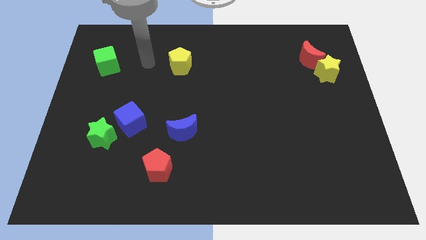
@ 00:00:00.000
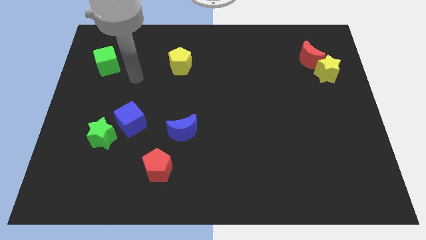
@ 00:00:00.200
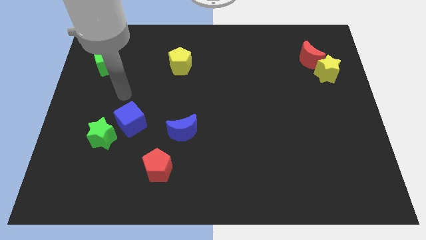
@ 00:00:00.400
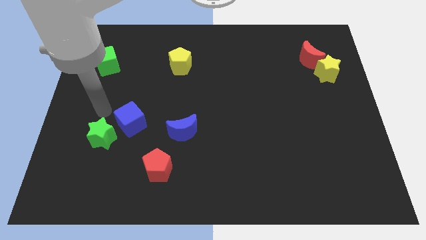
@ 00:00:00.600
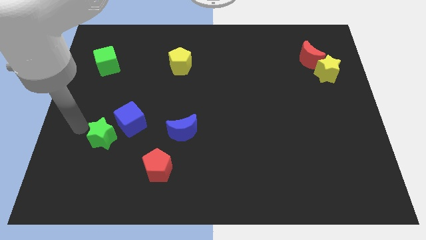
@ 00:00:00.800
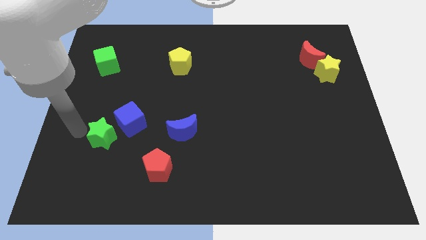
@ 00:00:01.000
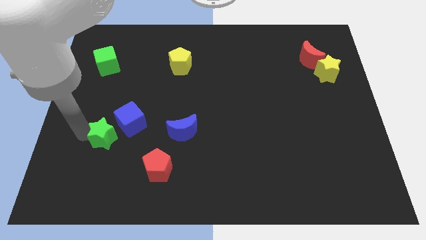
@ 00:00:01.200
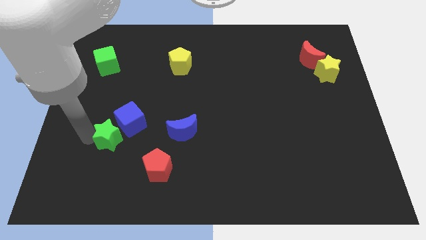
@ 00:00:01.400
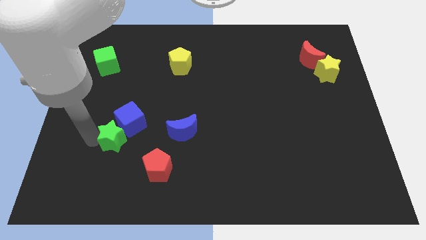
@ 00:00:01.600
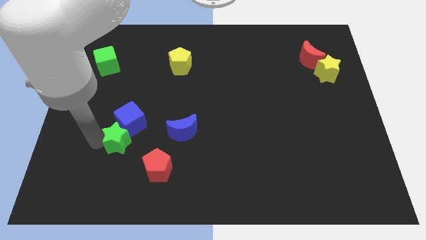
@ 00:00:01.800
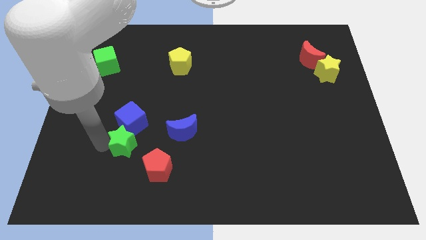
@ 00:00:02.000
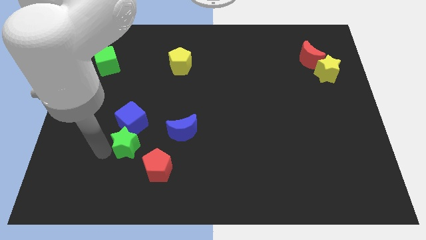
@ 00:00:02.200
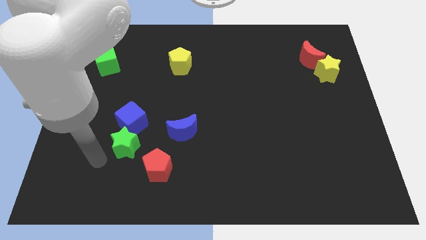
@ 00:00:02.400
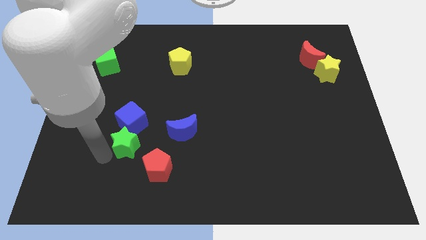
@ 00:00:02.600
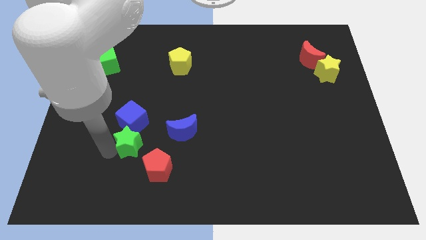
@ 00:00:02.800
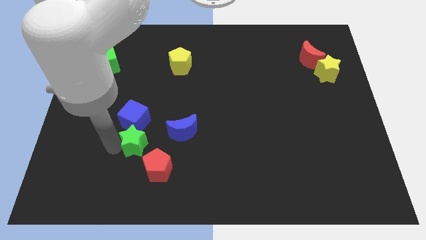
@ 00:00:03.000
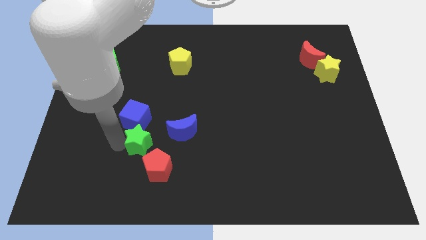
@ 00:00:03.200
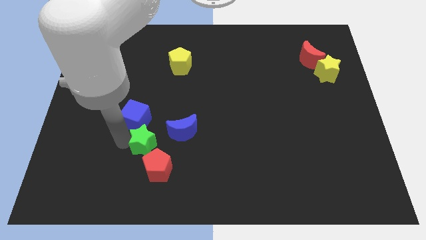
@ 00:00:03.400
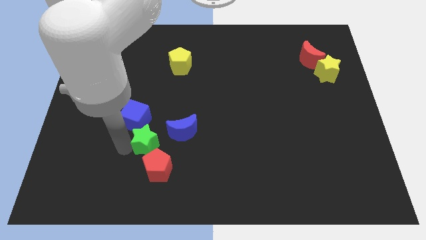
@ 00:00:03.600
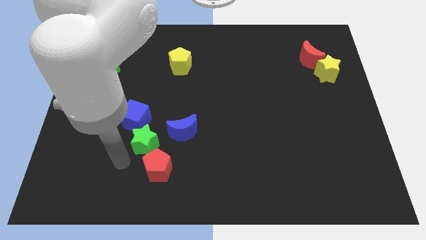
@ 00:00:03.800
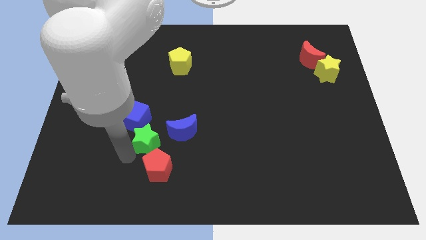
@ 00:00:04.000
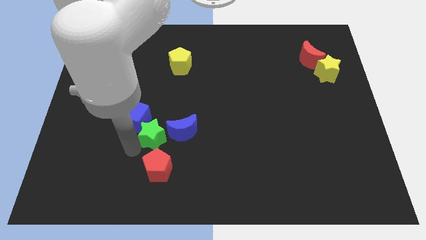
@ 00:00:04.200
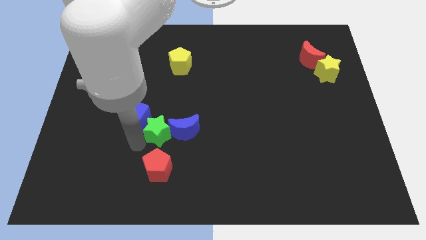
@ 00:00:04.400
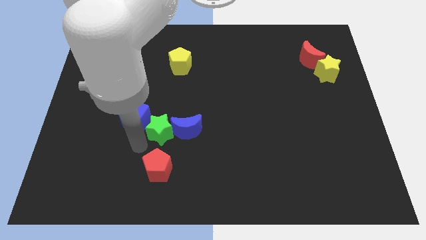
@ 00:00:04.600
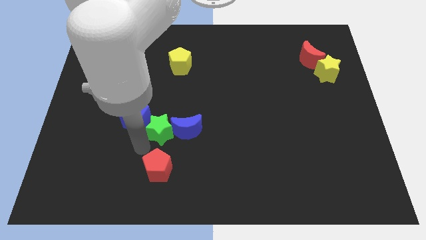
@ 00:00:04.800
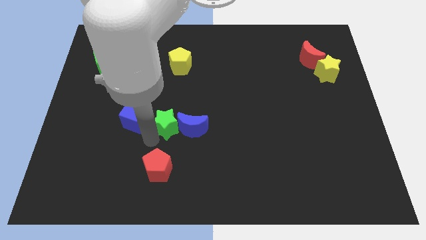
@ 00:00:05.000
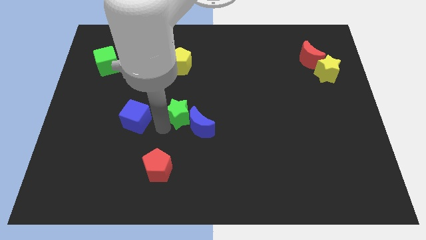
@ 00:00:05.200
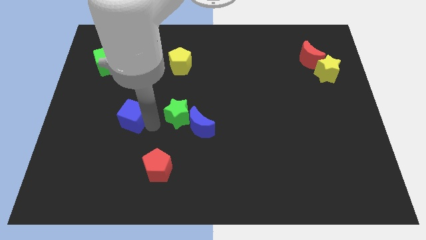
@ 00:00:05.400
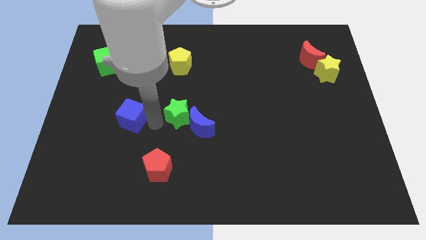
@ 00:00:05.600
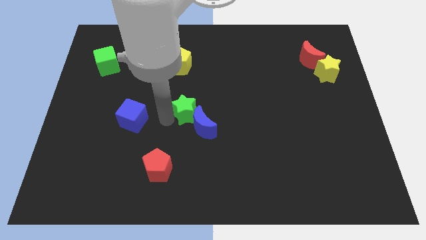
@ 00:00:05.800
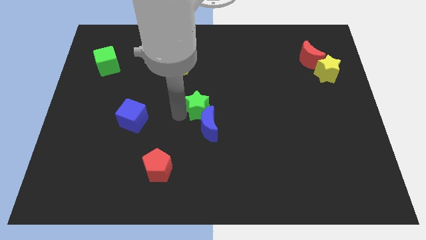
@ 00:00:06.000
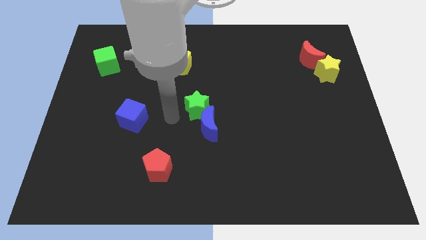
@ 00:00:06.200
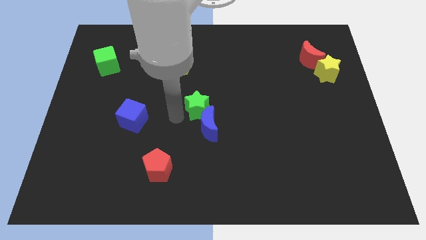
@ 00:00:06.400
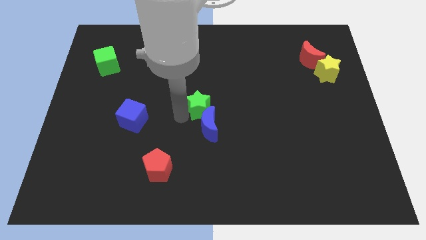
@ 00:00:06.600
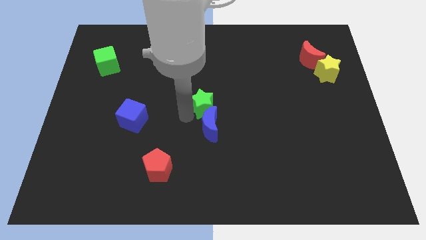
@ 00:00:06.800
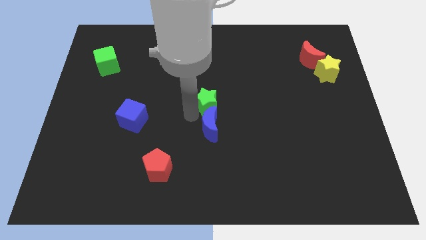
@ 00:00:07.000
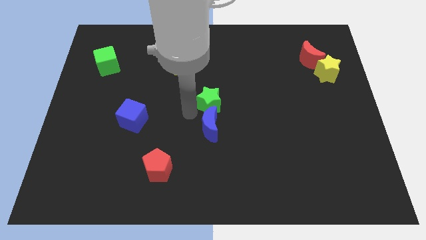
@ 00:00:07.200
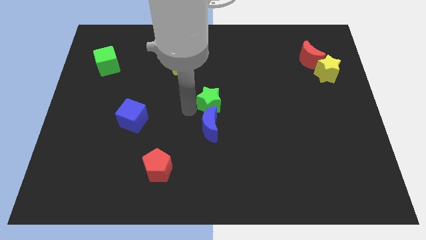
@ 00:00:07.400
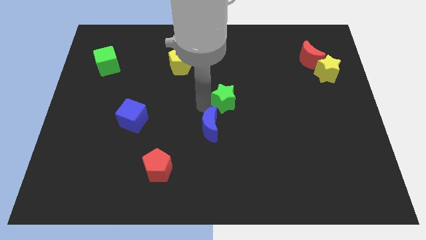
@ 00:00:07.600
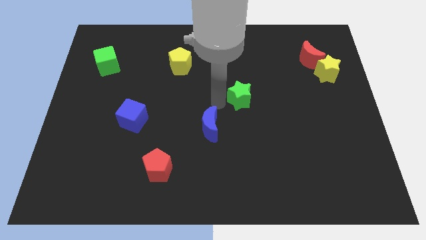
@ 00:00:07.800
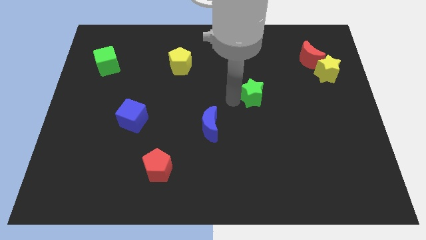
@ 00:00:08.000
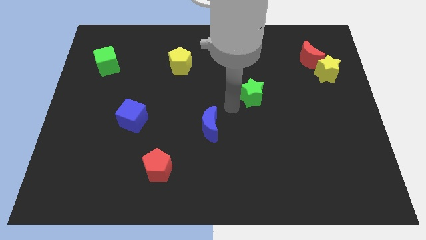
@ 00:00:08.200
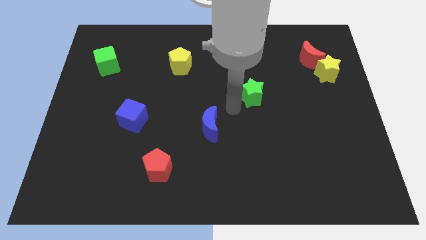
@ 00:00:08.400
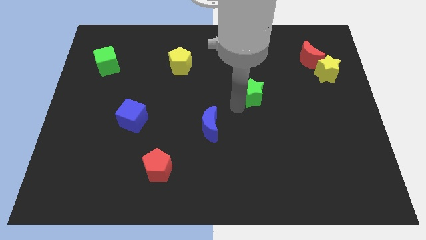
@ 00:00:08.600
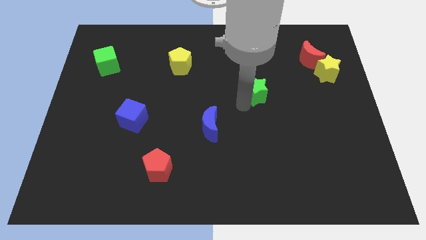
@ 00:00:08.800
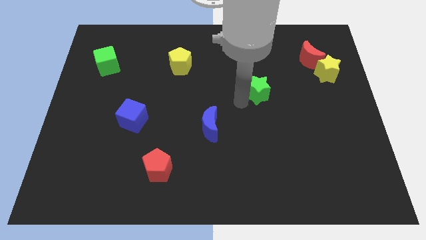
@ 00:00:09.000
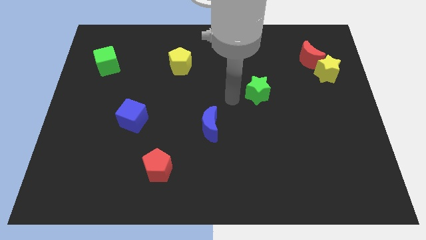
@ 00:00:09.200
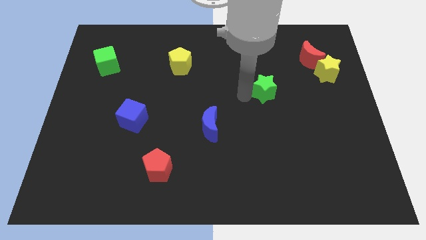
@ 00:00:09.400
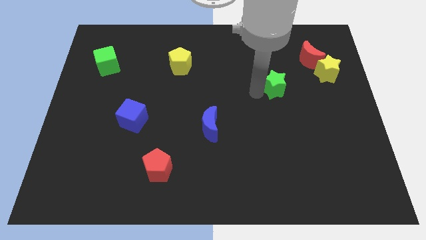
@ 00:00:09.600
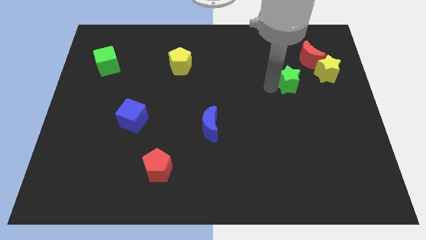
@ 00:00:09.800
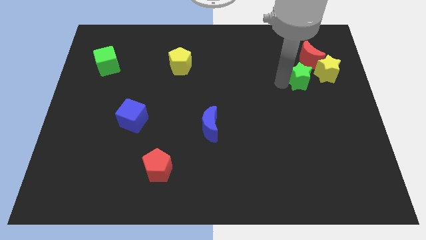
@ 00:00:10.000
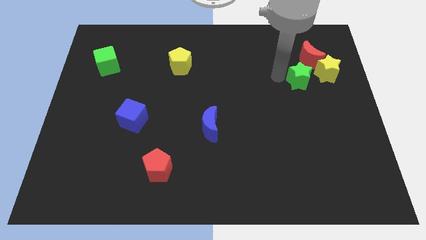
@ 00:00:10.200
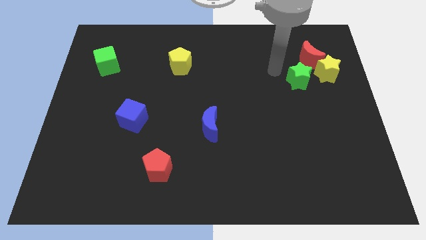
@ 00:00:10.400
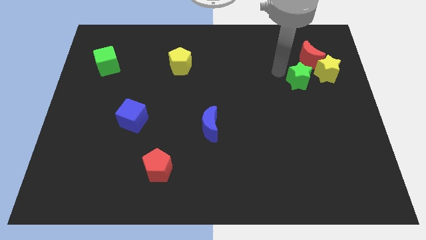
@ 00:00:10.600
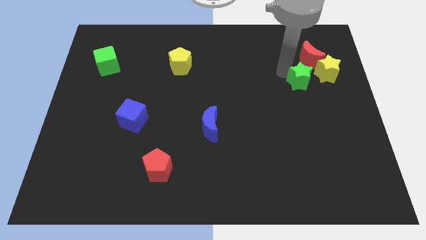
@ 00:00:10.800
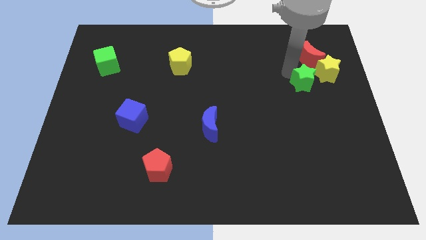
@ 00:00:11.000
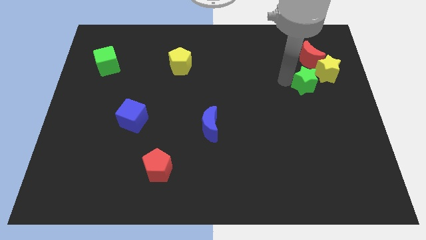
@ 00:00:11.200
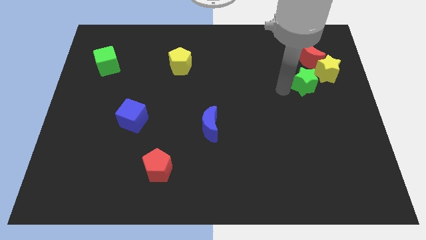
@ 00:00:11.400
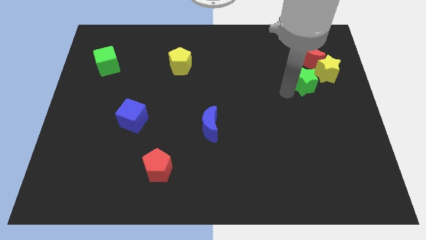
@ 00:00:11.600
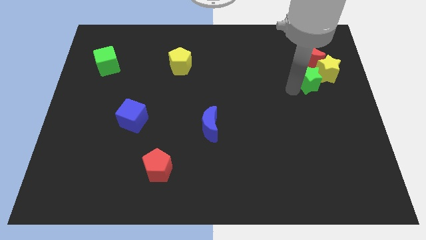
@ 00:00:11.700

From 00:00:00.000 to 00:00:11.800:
slide the green star to the yellow star
